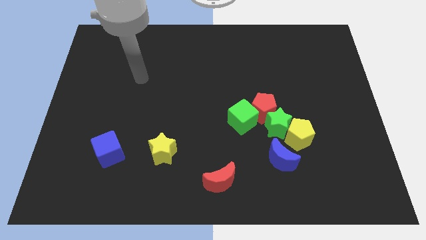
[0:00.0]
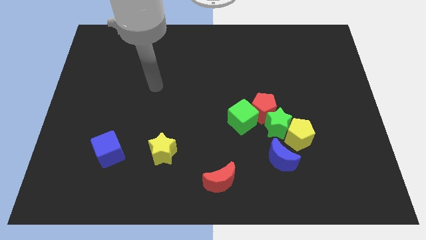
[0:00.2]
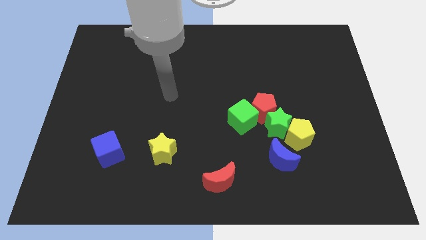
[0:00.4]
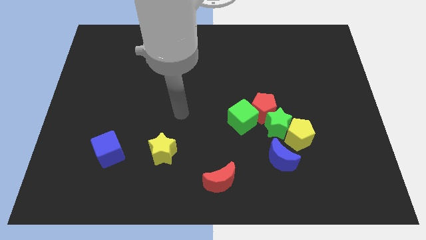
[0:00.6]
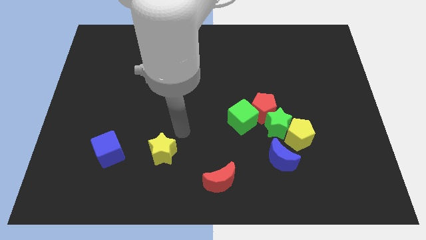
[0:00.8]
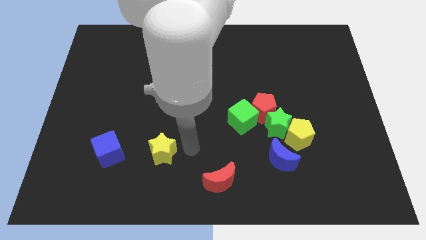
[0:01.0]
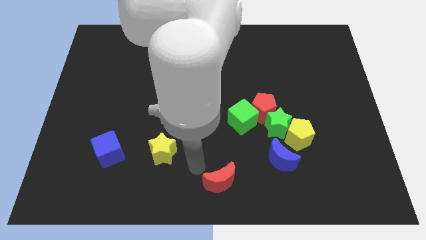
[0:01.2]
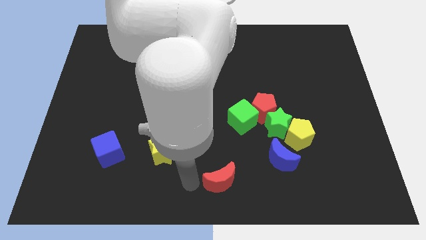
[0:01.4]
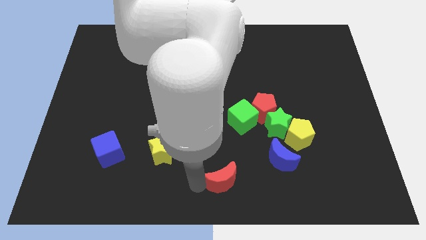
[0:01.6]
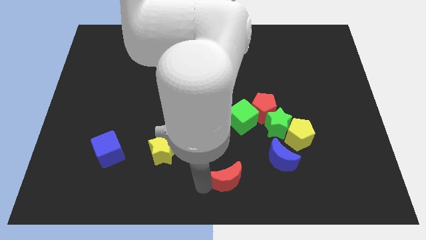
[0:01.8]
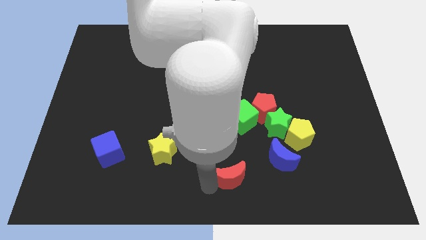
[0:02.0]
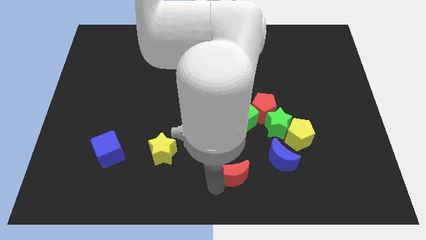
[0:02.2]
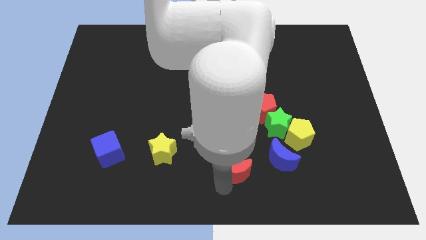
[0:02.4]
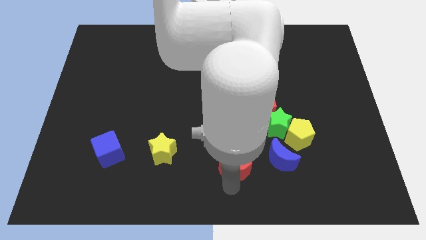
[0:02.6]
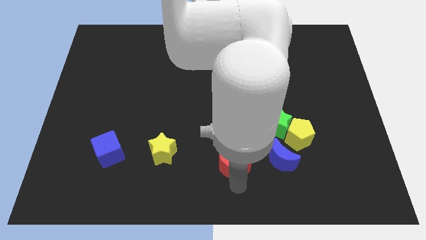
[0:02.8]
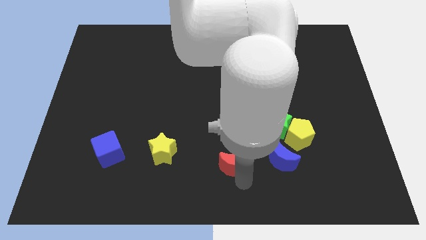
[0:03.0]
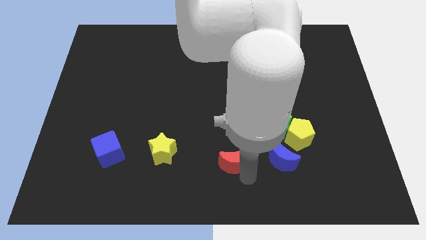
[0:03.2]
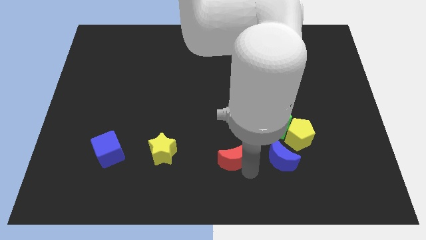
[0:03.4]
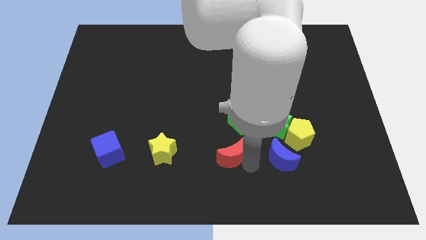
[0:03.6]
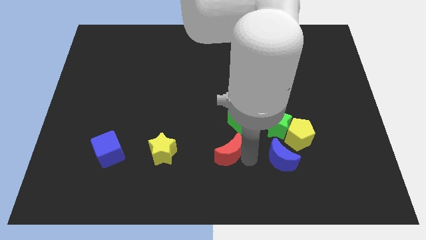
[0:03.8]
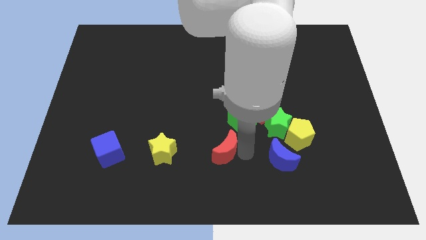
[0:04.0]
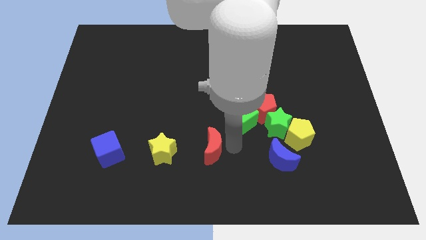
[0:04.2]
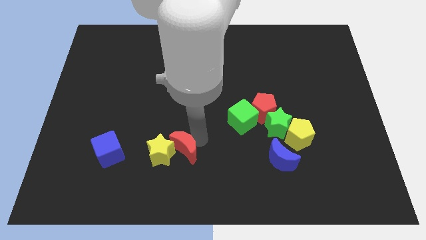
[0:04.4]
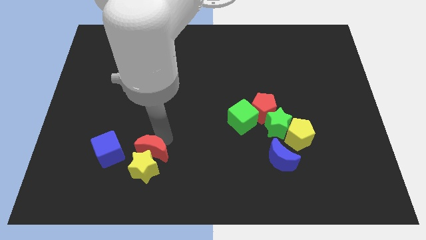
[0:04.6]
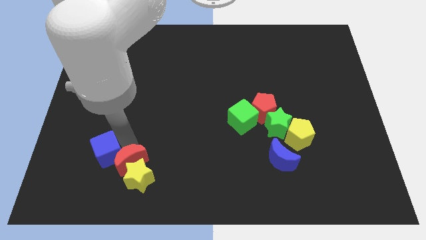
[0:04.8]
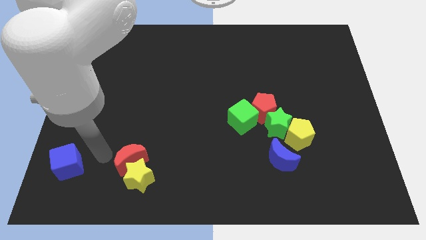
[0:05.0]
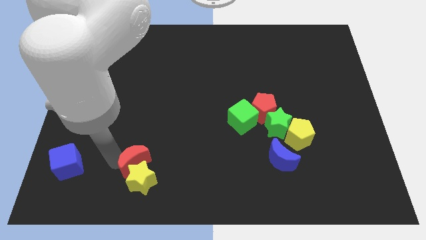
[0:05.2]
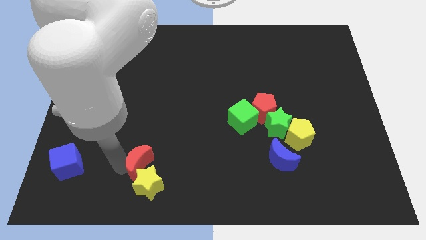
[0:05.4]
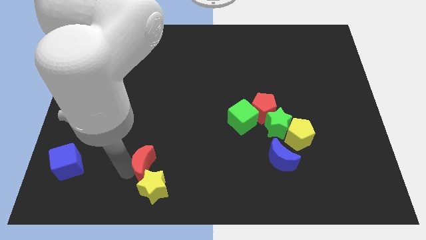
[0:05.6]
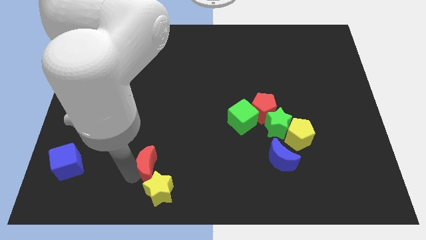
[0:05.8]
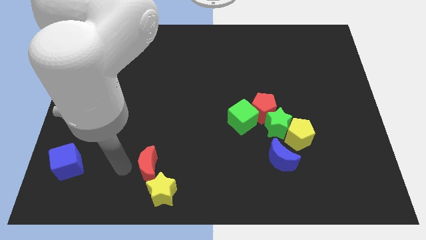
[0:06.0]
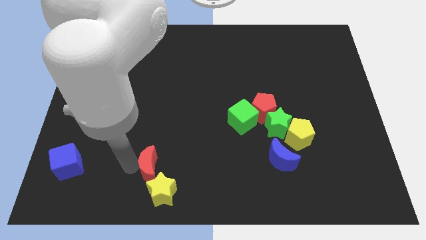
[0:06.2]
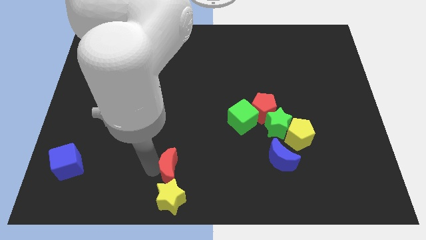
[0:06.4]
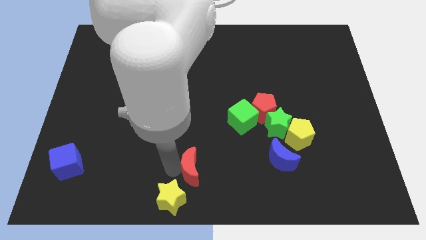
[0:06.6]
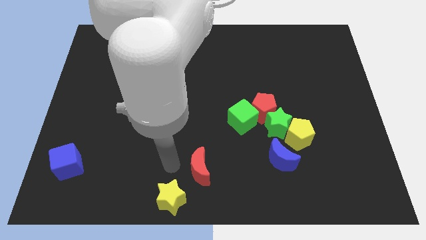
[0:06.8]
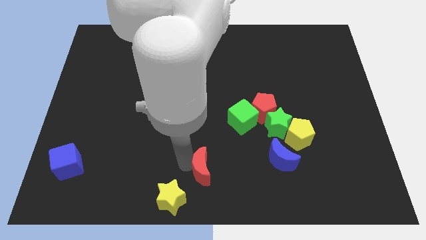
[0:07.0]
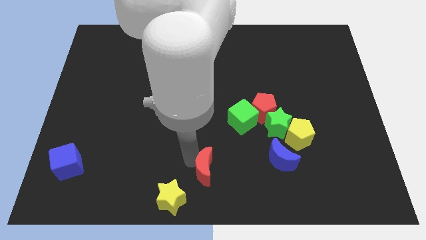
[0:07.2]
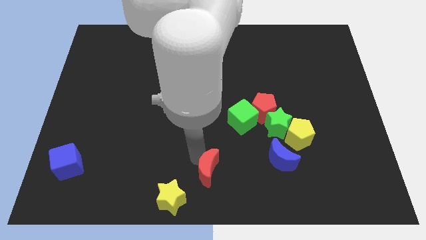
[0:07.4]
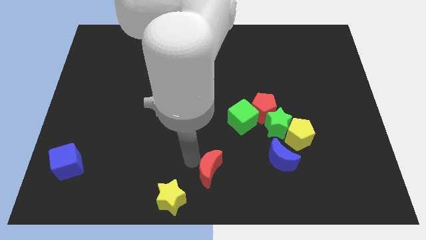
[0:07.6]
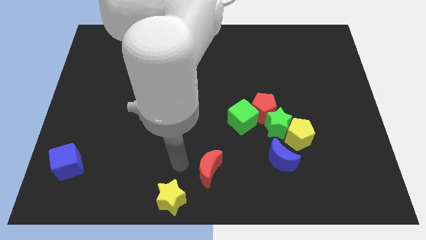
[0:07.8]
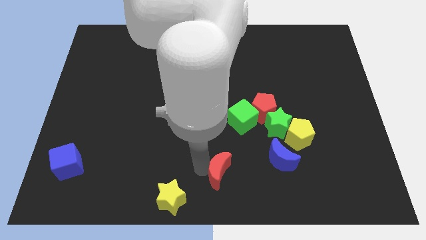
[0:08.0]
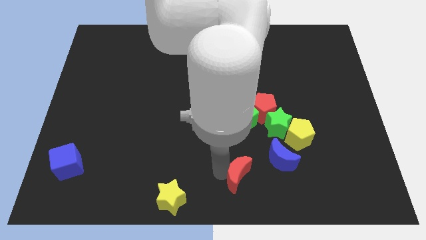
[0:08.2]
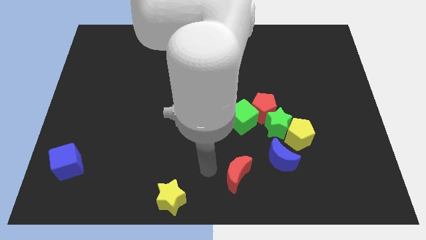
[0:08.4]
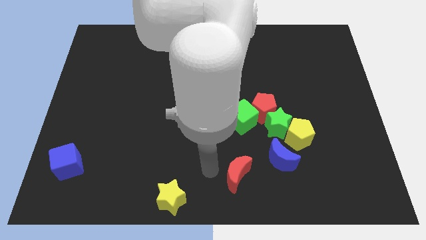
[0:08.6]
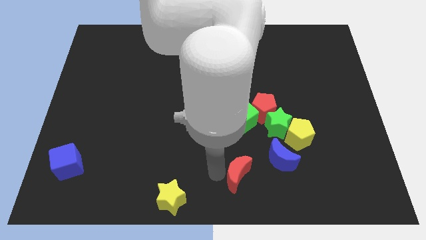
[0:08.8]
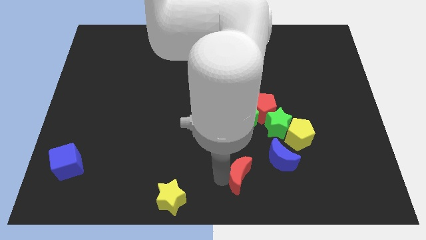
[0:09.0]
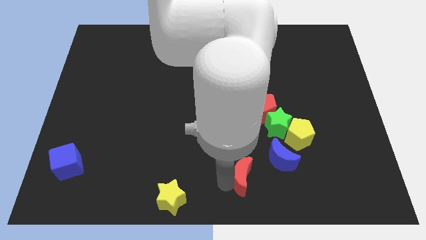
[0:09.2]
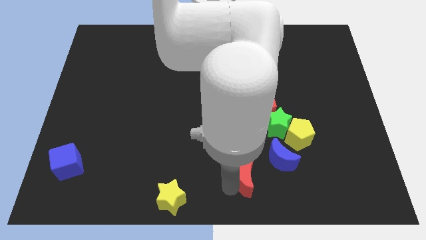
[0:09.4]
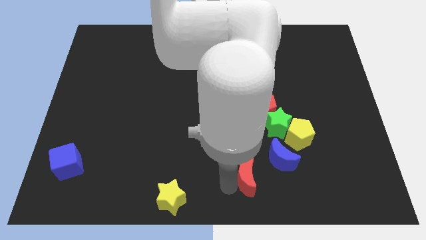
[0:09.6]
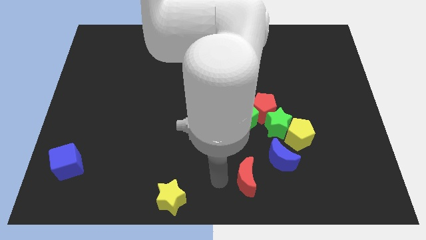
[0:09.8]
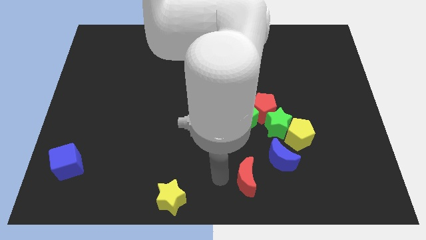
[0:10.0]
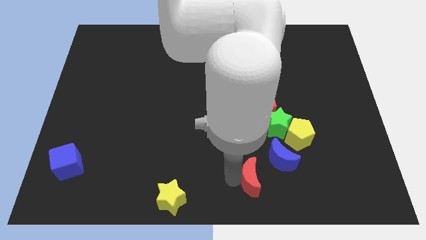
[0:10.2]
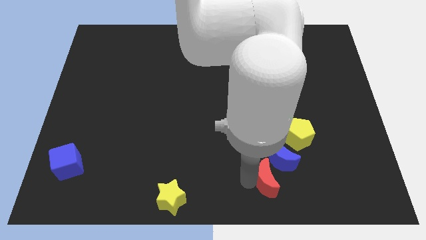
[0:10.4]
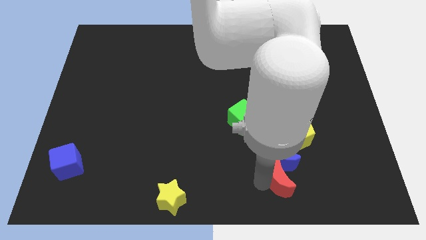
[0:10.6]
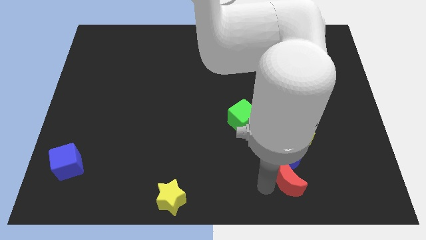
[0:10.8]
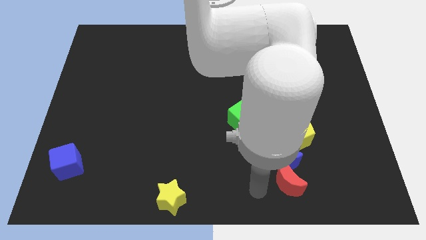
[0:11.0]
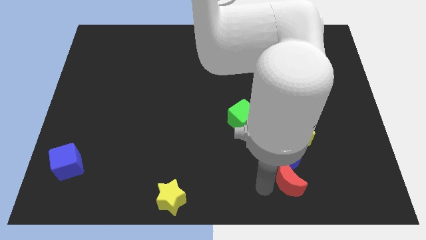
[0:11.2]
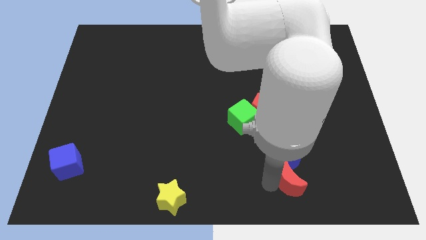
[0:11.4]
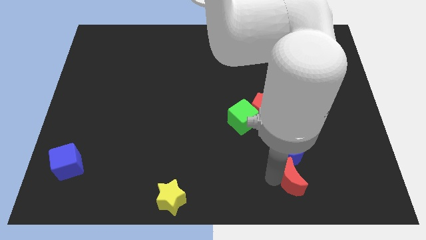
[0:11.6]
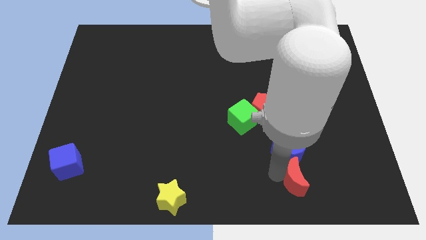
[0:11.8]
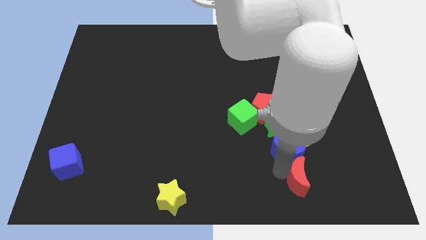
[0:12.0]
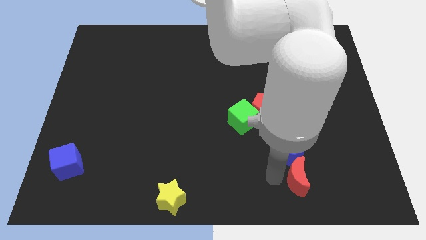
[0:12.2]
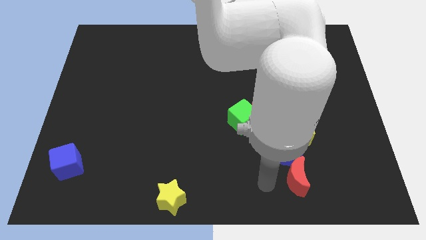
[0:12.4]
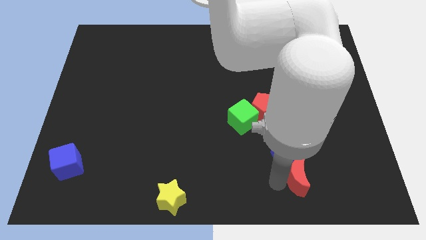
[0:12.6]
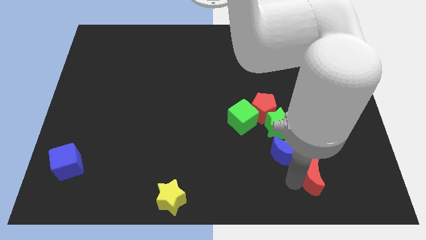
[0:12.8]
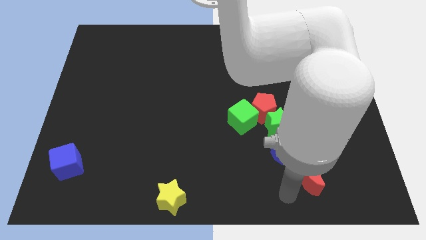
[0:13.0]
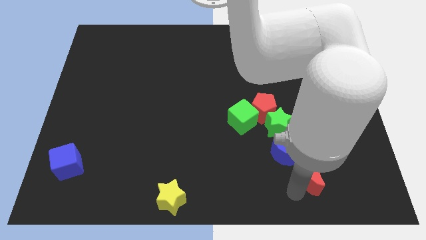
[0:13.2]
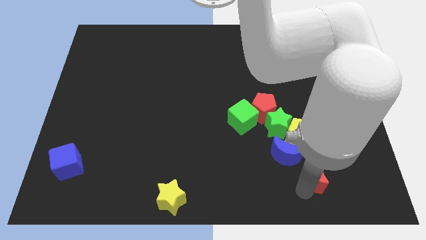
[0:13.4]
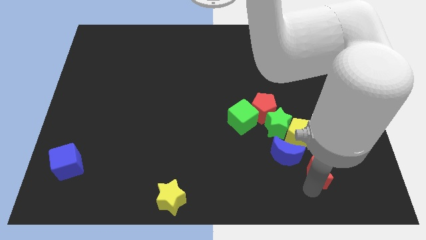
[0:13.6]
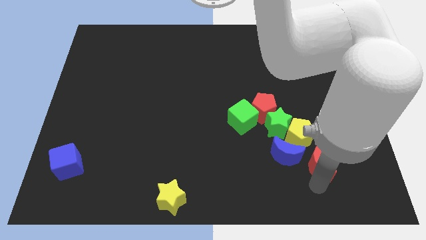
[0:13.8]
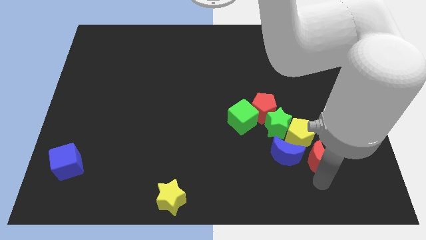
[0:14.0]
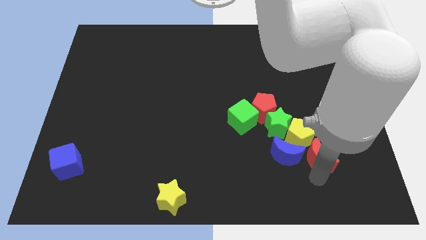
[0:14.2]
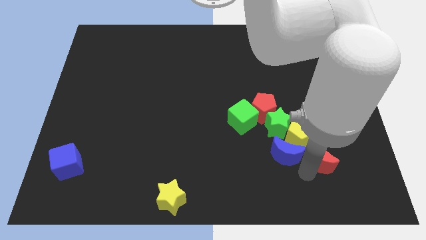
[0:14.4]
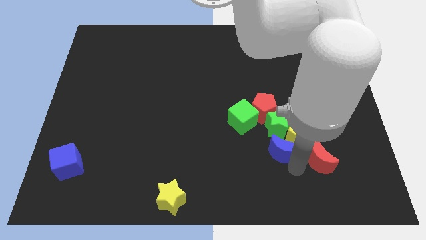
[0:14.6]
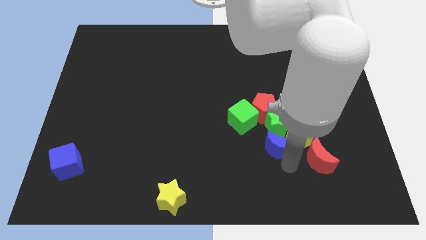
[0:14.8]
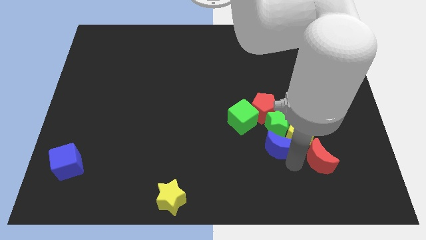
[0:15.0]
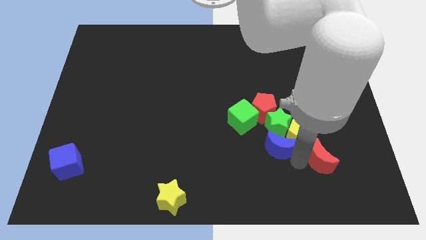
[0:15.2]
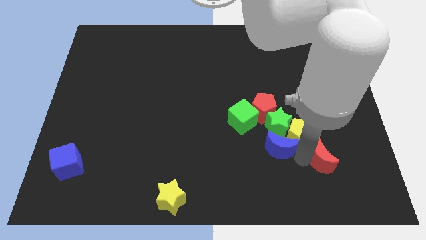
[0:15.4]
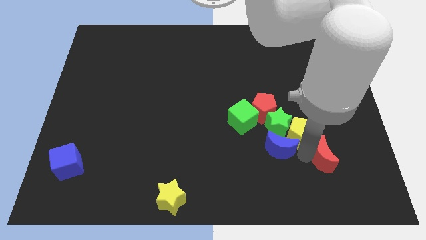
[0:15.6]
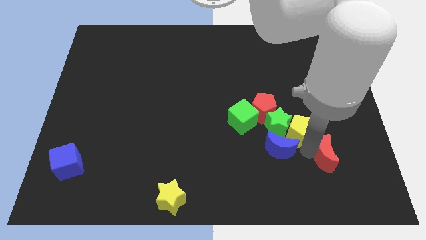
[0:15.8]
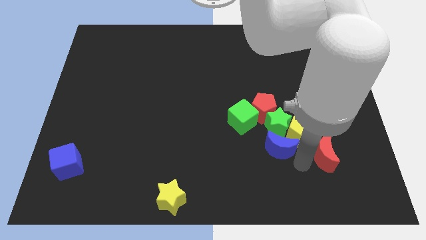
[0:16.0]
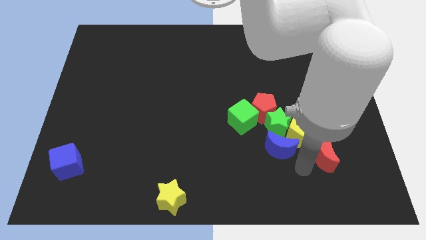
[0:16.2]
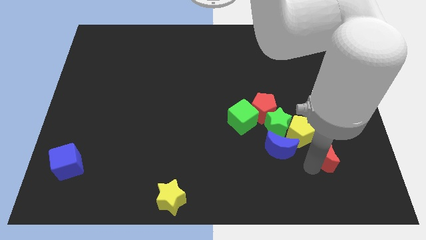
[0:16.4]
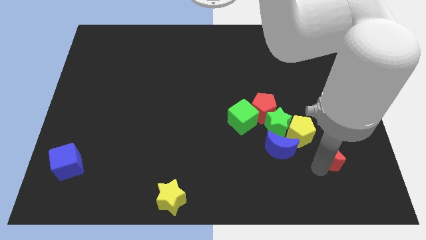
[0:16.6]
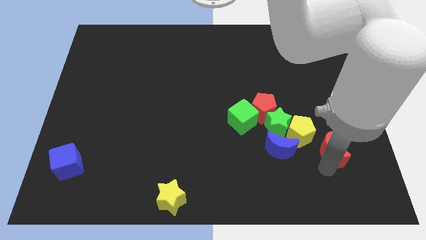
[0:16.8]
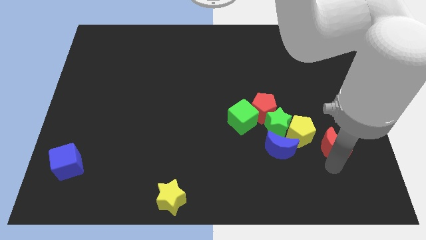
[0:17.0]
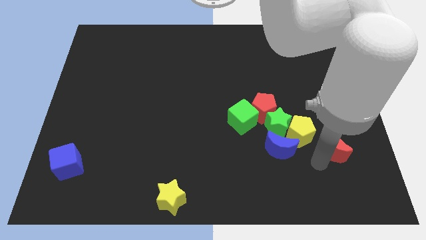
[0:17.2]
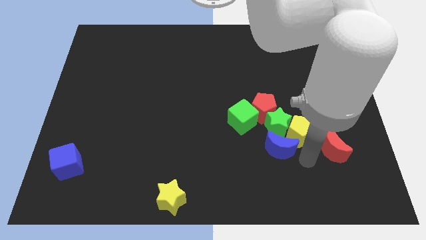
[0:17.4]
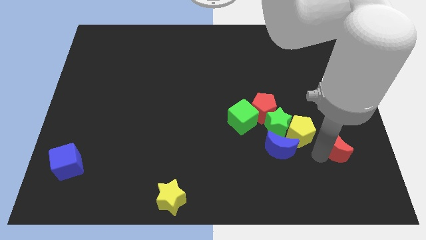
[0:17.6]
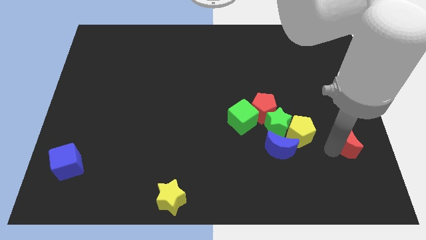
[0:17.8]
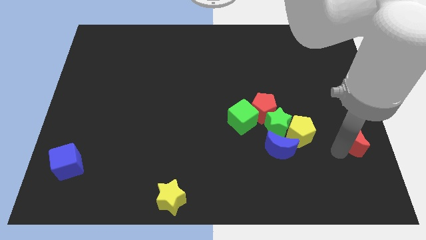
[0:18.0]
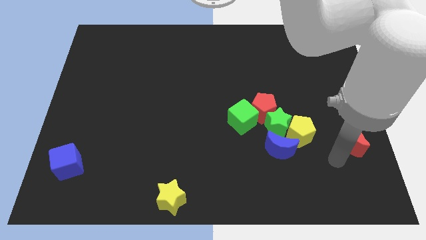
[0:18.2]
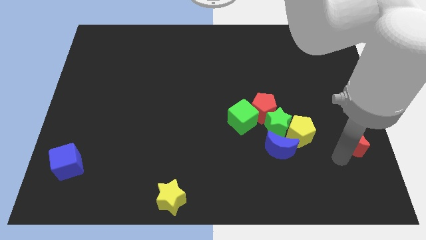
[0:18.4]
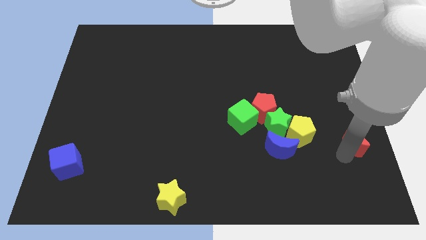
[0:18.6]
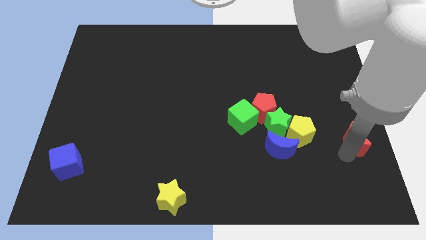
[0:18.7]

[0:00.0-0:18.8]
move the red moon to the center right
